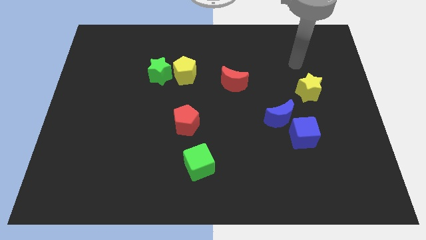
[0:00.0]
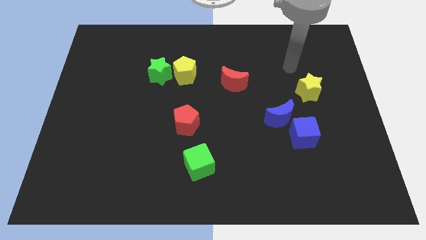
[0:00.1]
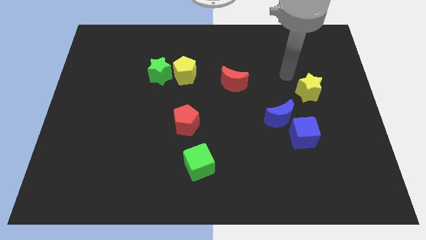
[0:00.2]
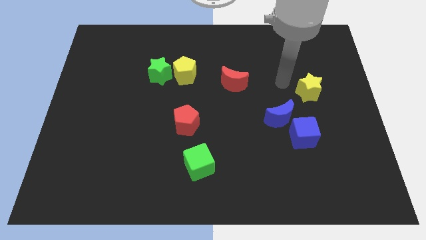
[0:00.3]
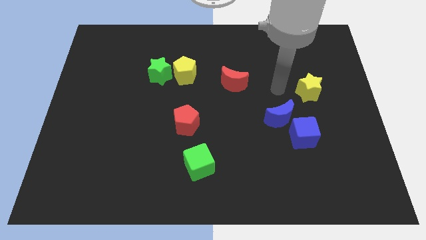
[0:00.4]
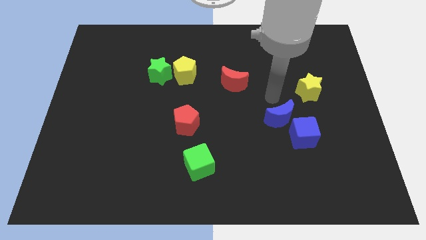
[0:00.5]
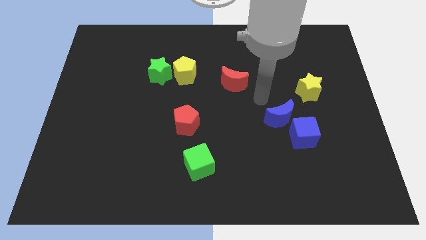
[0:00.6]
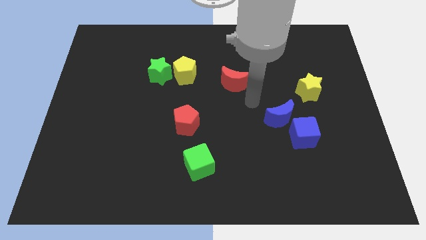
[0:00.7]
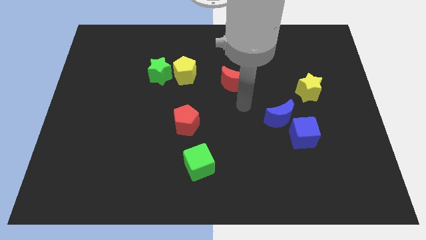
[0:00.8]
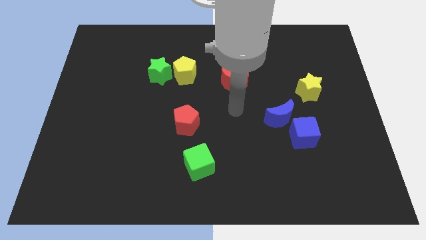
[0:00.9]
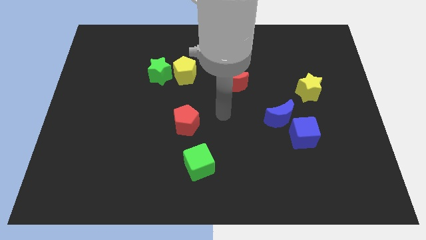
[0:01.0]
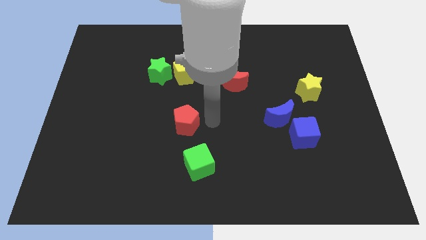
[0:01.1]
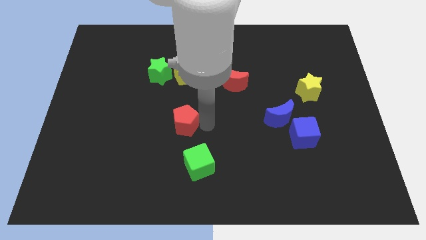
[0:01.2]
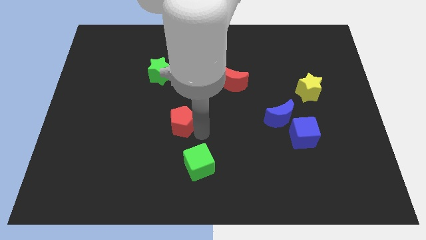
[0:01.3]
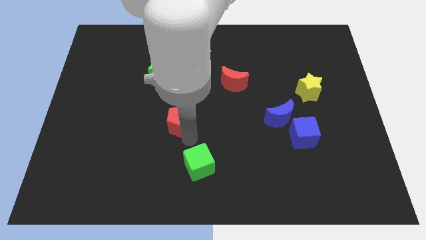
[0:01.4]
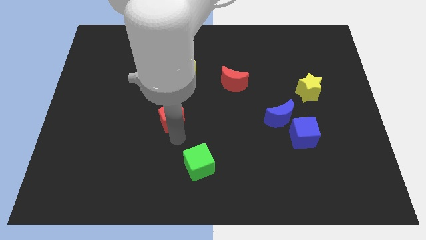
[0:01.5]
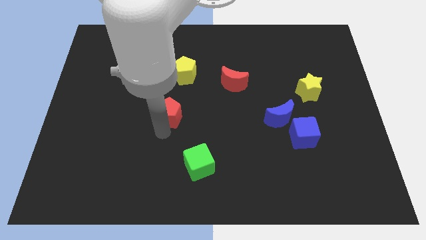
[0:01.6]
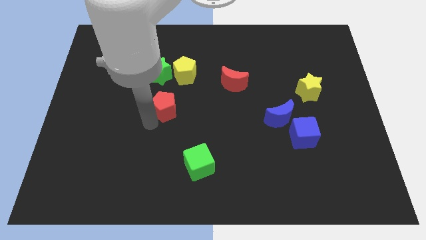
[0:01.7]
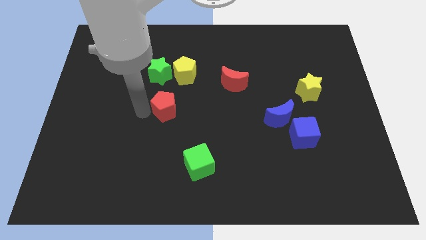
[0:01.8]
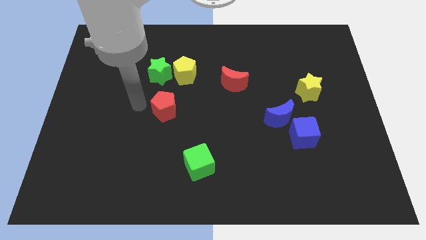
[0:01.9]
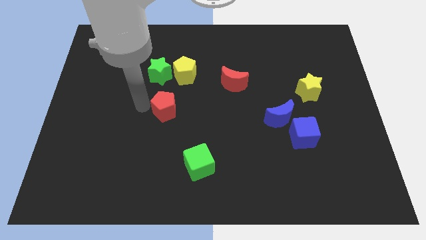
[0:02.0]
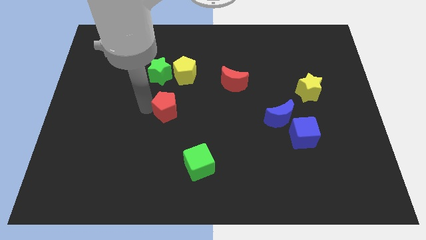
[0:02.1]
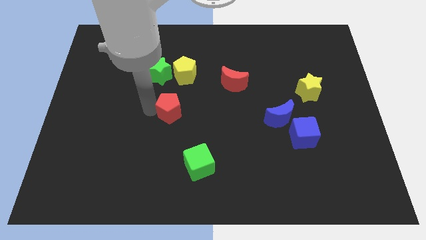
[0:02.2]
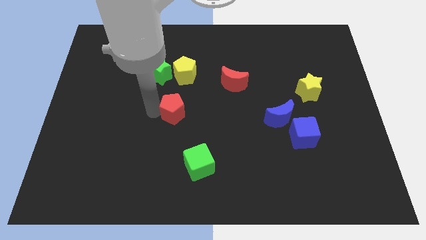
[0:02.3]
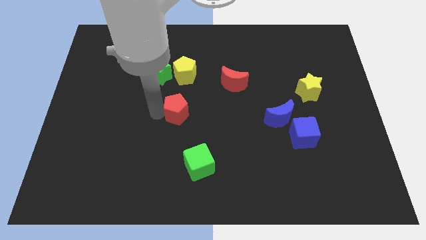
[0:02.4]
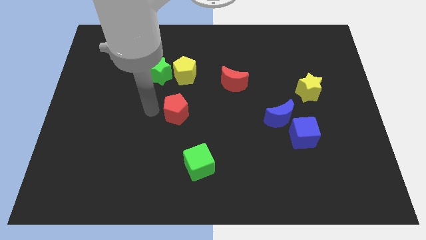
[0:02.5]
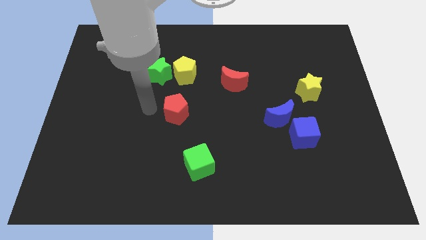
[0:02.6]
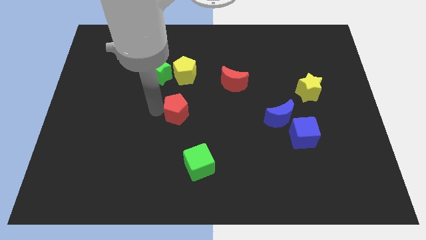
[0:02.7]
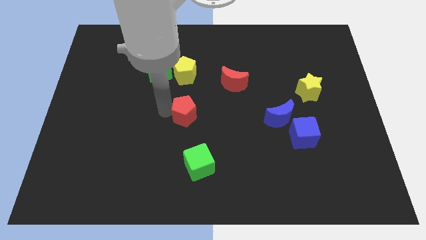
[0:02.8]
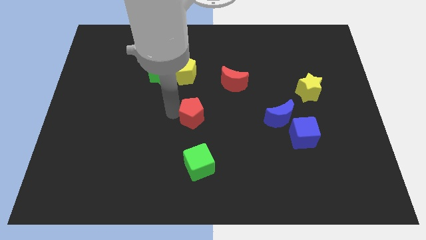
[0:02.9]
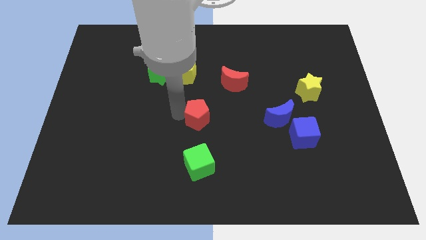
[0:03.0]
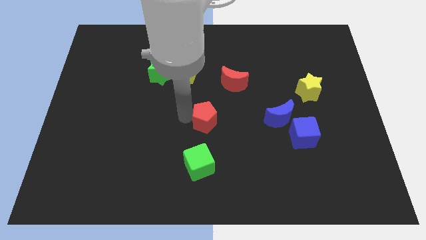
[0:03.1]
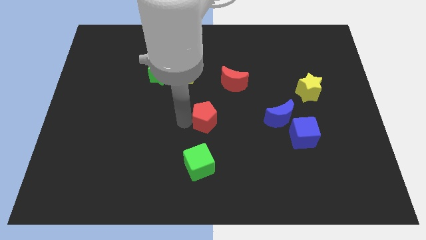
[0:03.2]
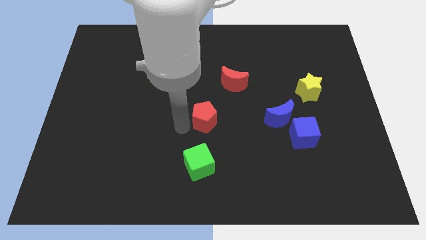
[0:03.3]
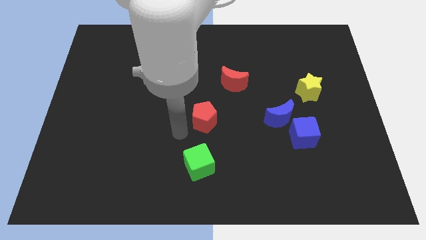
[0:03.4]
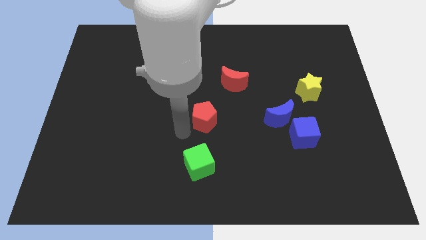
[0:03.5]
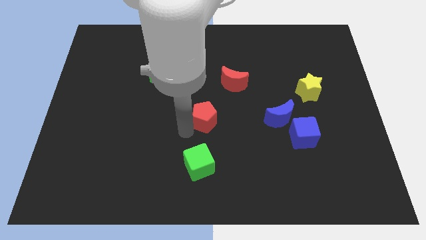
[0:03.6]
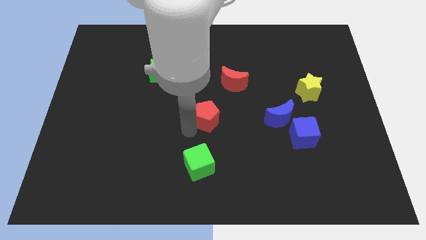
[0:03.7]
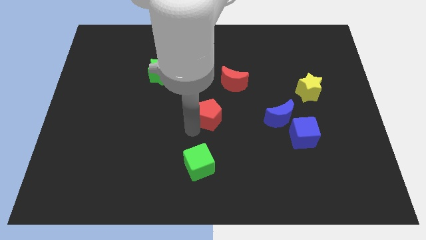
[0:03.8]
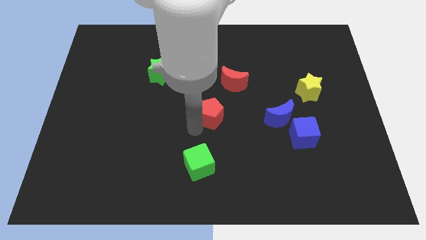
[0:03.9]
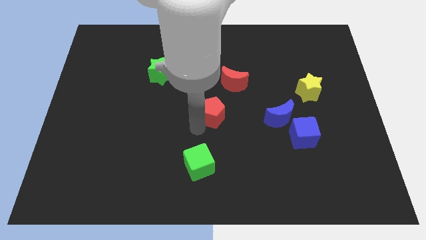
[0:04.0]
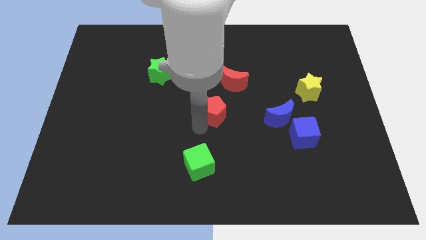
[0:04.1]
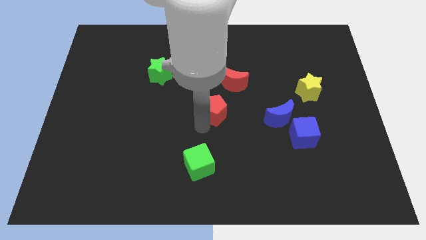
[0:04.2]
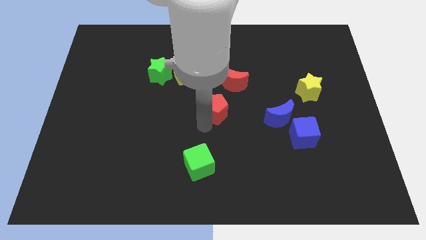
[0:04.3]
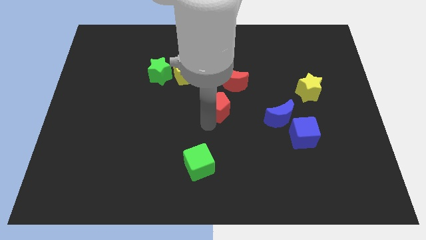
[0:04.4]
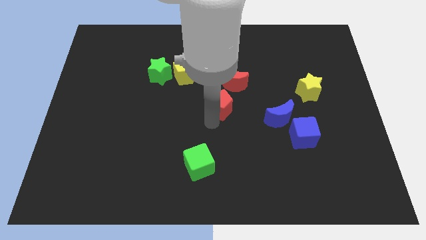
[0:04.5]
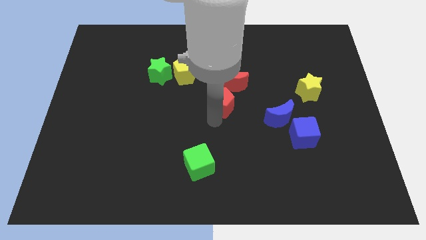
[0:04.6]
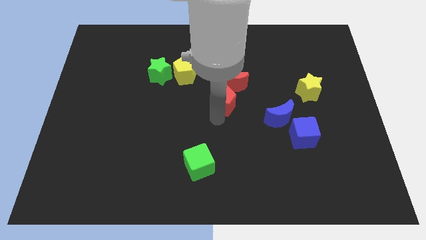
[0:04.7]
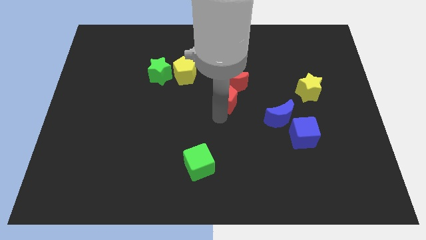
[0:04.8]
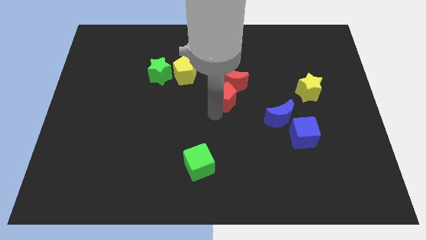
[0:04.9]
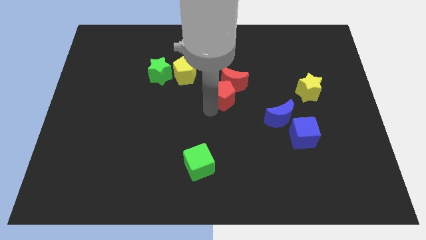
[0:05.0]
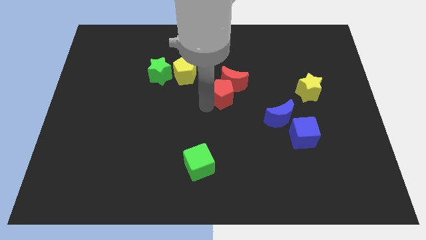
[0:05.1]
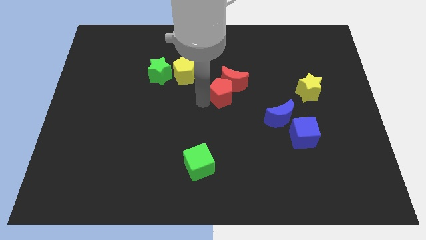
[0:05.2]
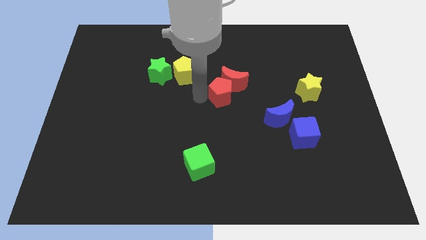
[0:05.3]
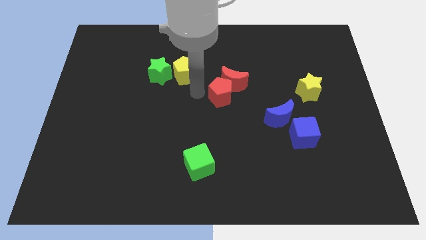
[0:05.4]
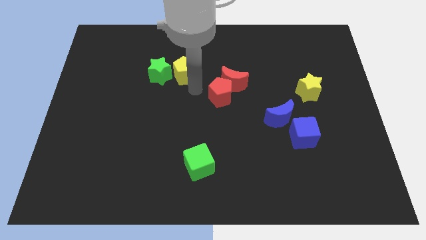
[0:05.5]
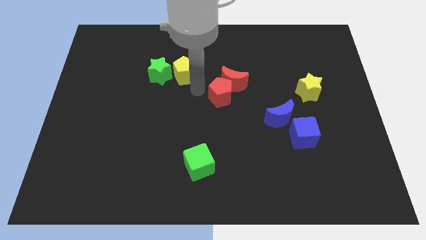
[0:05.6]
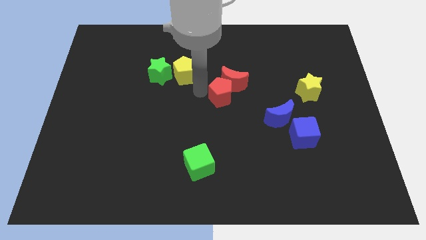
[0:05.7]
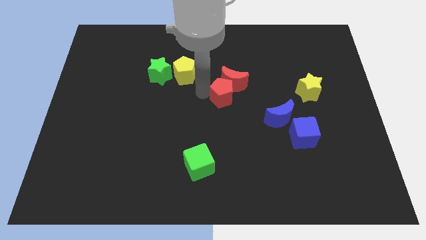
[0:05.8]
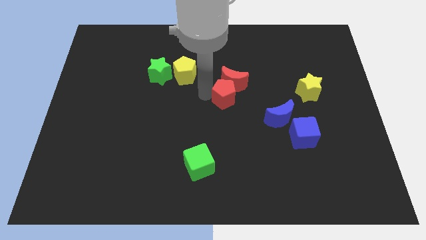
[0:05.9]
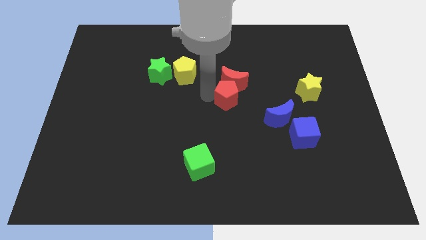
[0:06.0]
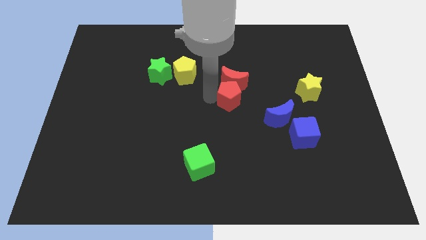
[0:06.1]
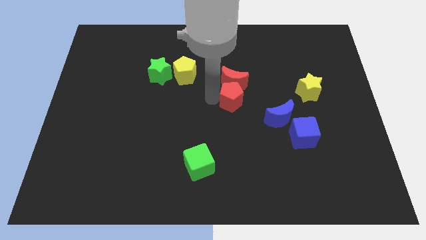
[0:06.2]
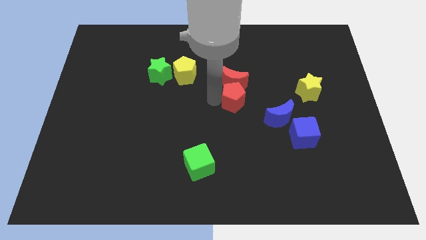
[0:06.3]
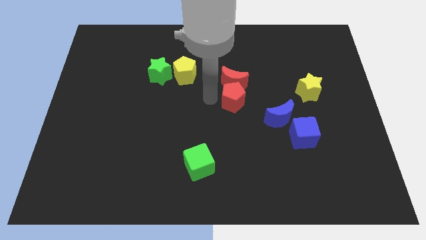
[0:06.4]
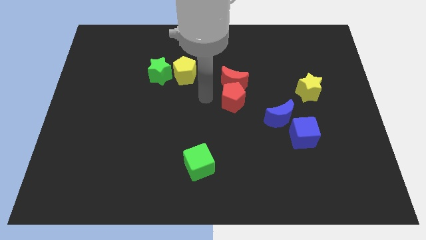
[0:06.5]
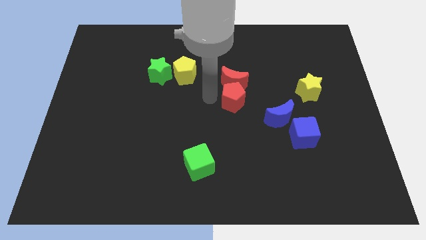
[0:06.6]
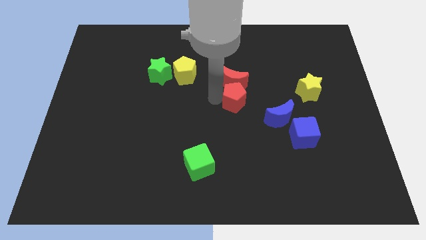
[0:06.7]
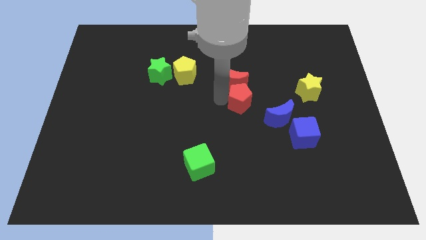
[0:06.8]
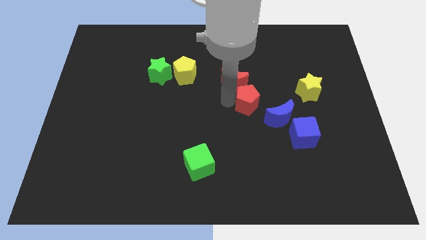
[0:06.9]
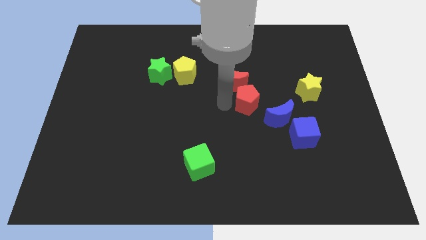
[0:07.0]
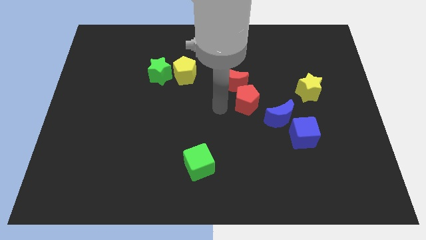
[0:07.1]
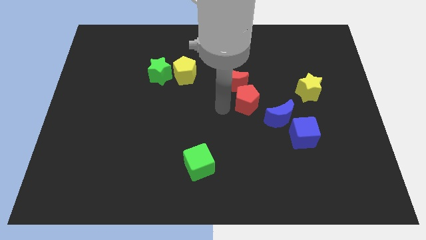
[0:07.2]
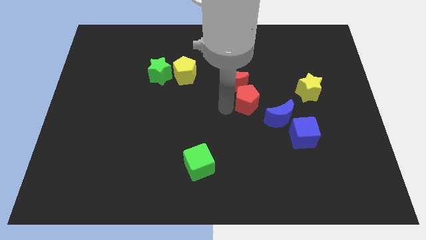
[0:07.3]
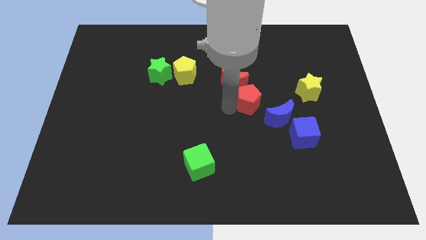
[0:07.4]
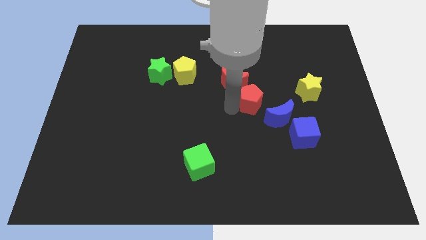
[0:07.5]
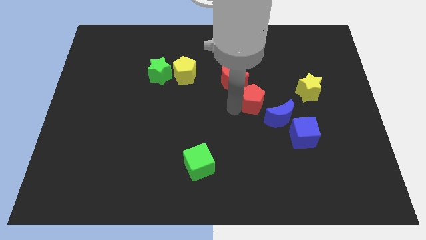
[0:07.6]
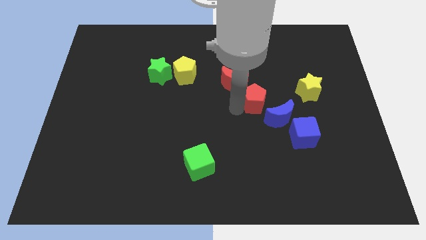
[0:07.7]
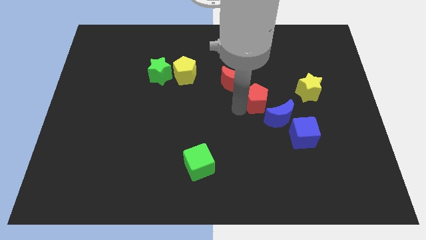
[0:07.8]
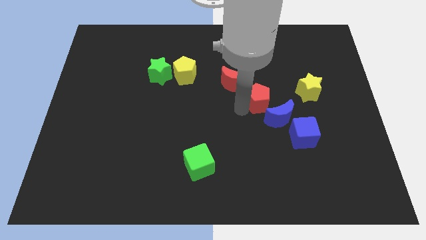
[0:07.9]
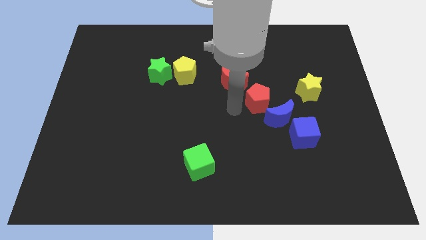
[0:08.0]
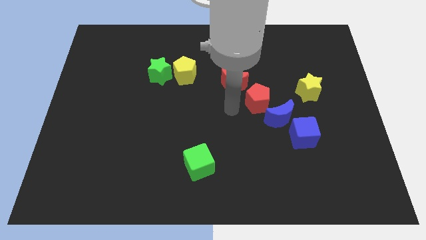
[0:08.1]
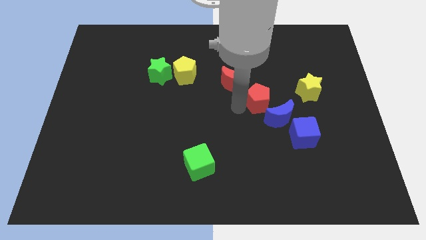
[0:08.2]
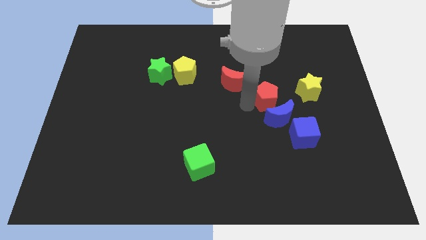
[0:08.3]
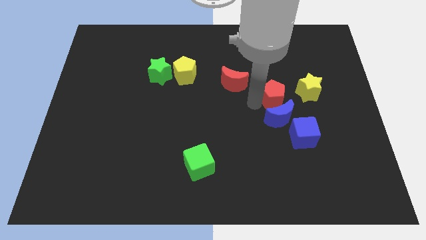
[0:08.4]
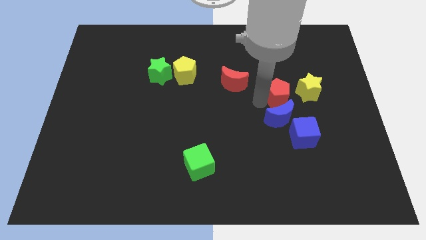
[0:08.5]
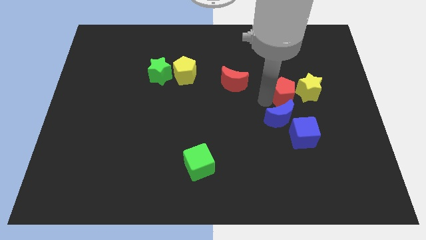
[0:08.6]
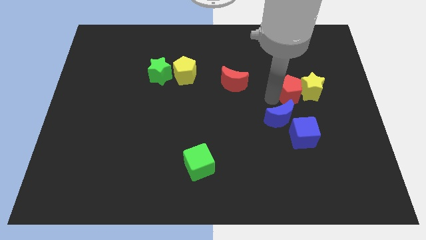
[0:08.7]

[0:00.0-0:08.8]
move the red pentagon towards the yellow star
